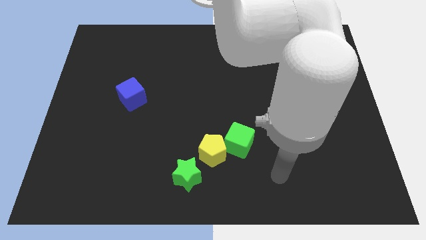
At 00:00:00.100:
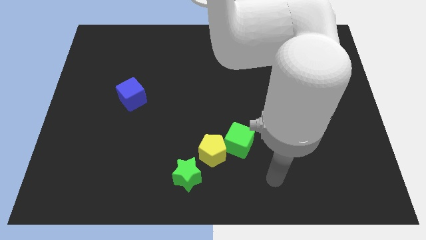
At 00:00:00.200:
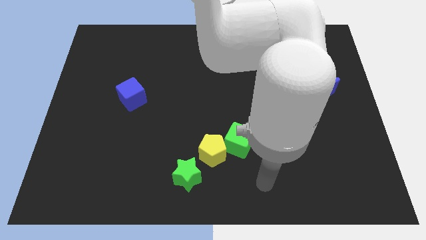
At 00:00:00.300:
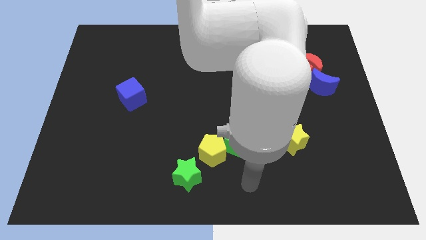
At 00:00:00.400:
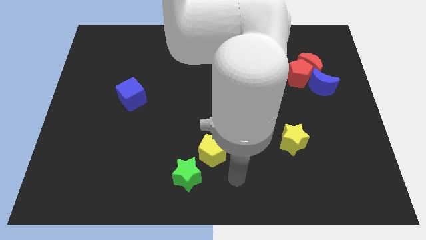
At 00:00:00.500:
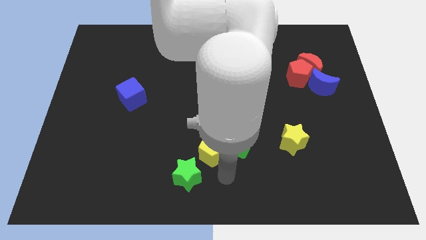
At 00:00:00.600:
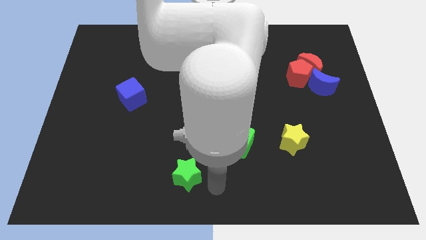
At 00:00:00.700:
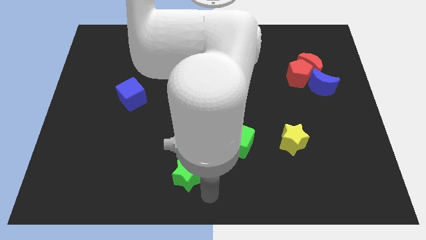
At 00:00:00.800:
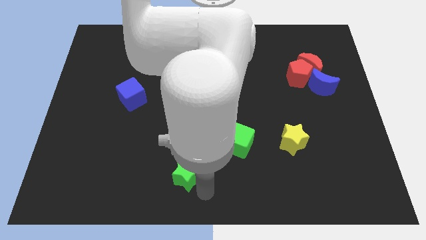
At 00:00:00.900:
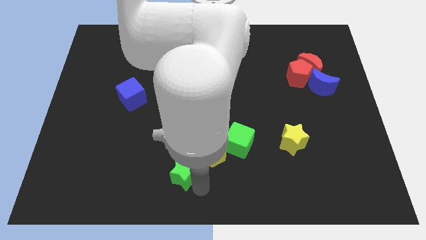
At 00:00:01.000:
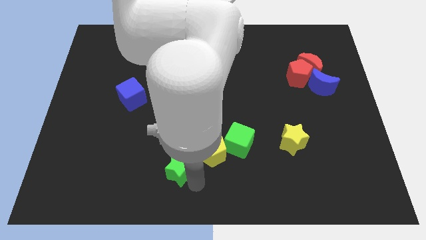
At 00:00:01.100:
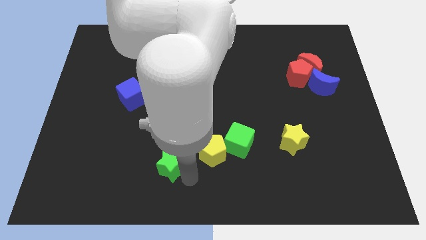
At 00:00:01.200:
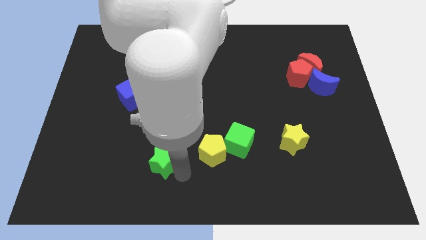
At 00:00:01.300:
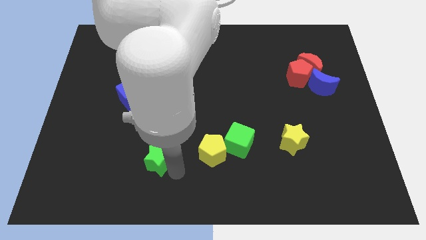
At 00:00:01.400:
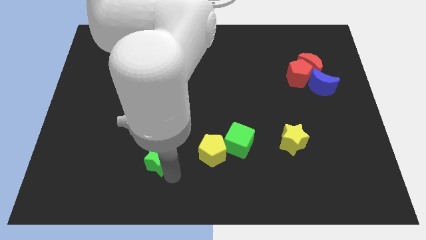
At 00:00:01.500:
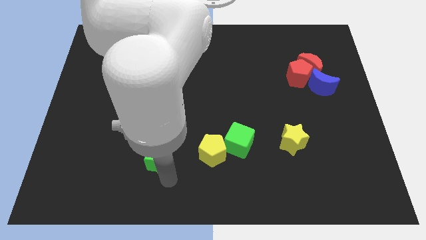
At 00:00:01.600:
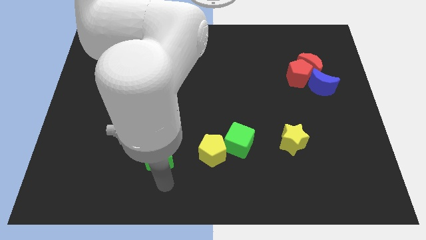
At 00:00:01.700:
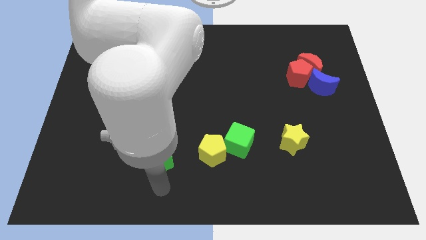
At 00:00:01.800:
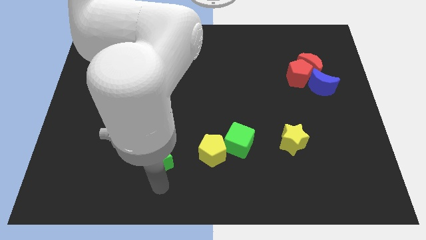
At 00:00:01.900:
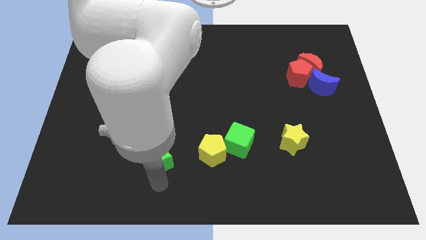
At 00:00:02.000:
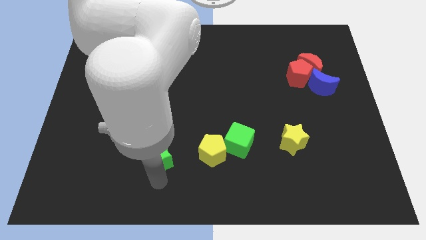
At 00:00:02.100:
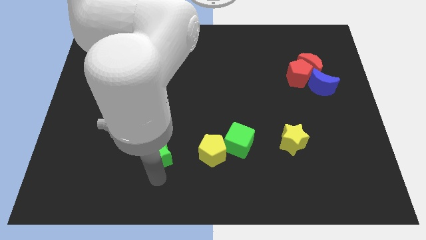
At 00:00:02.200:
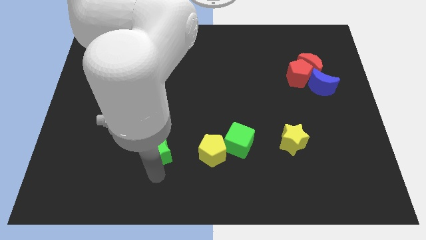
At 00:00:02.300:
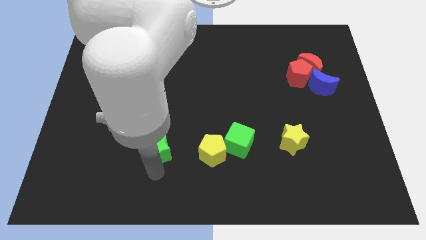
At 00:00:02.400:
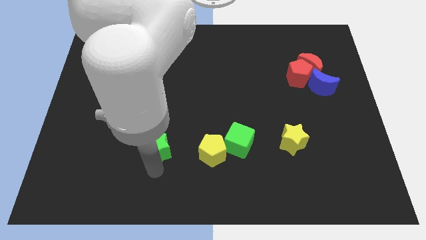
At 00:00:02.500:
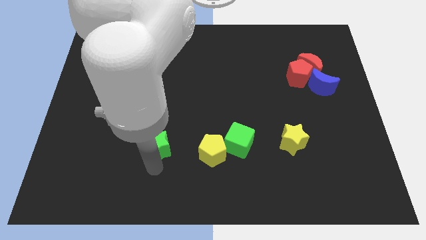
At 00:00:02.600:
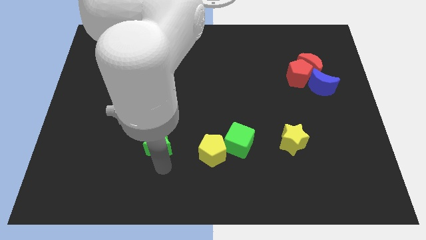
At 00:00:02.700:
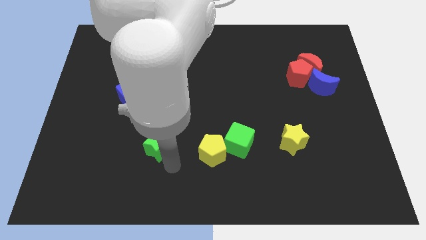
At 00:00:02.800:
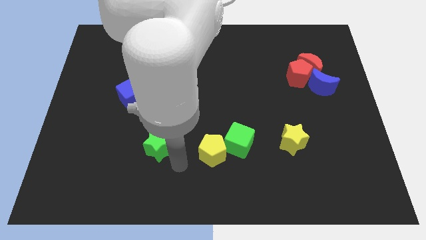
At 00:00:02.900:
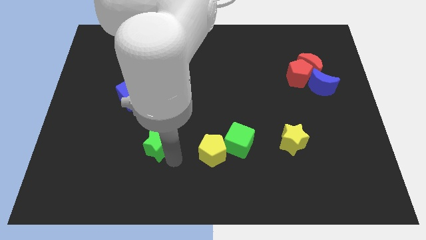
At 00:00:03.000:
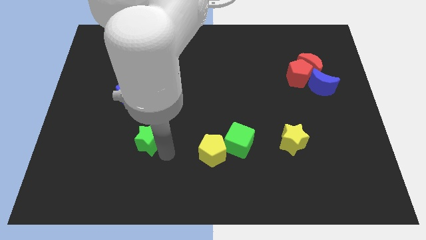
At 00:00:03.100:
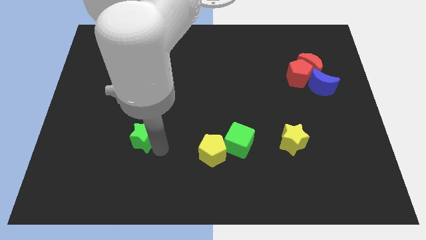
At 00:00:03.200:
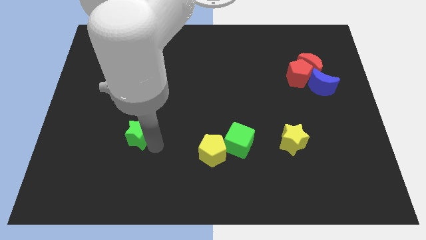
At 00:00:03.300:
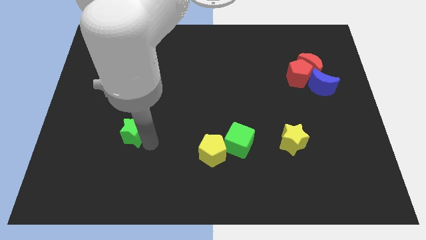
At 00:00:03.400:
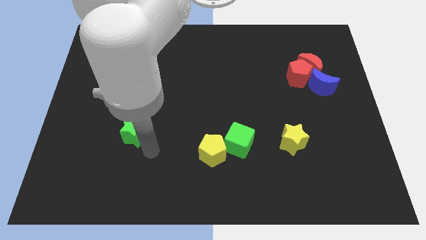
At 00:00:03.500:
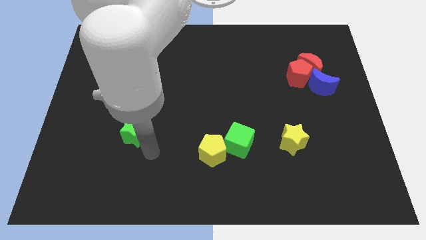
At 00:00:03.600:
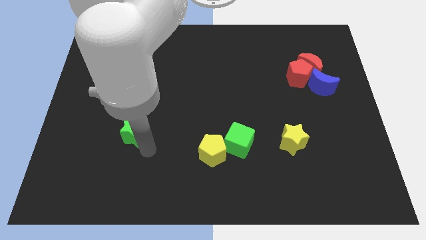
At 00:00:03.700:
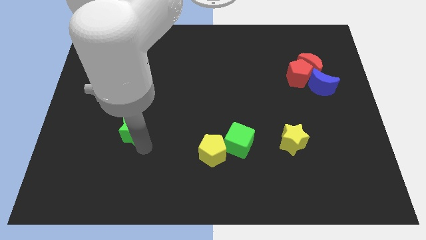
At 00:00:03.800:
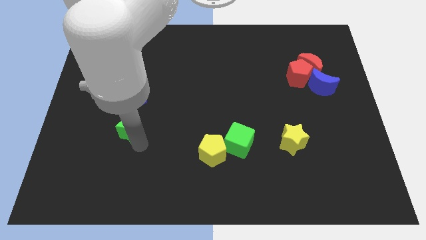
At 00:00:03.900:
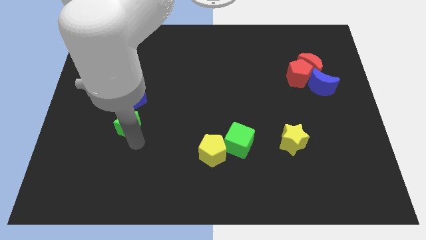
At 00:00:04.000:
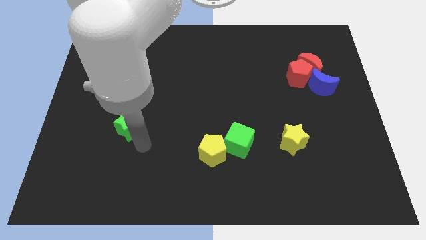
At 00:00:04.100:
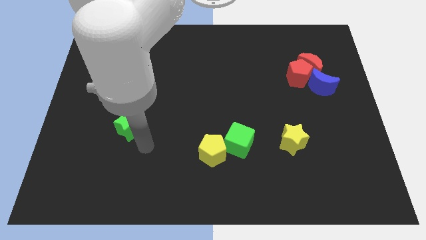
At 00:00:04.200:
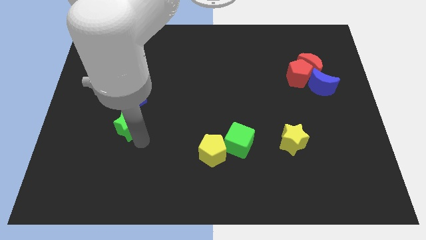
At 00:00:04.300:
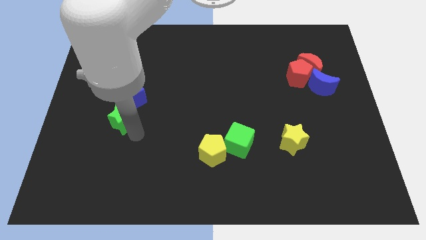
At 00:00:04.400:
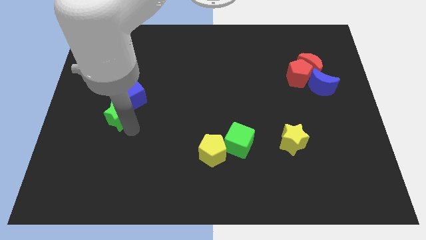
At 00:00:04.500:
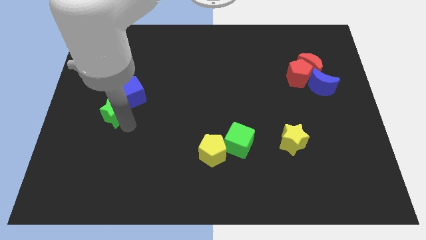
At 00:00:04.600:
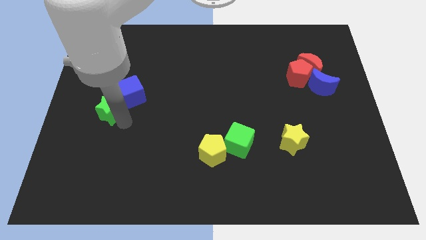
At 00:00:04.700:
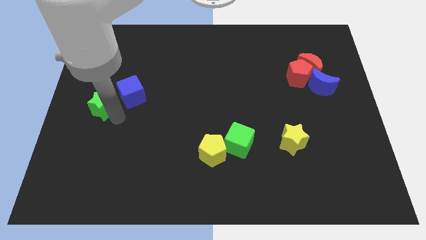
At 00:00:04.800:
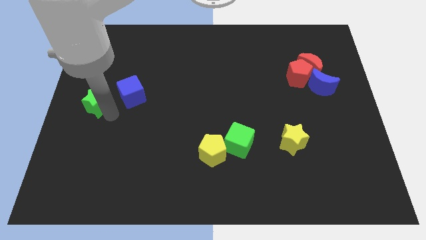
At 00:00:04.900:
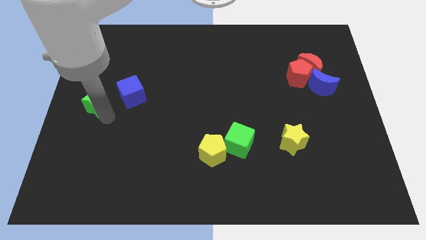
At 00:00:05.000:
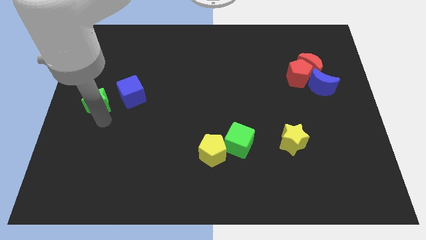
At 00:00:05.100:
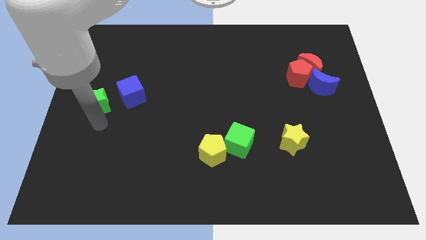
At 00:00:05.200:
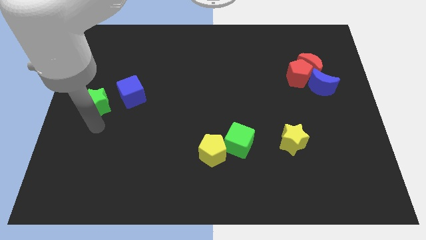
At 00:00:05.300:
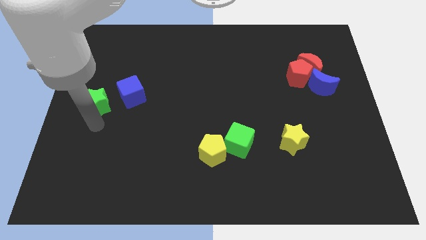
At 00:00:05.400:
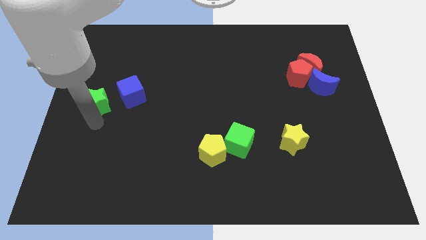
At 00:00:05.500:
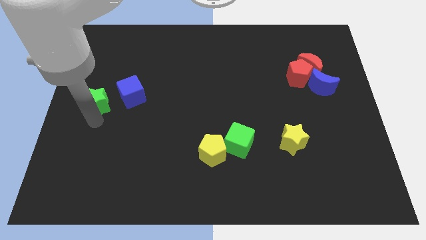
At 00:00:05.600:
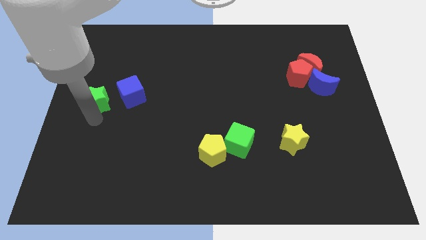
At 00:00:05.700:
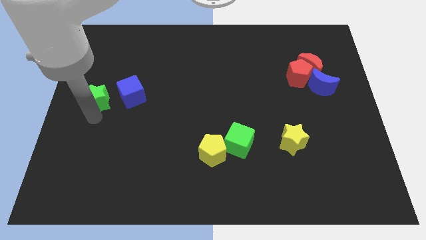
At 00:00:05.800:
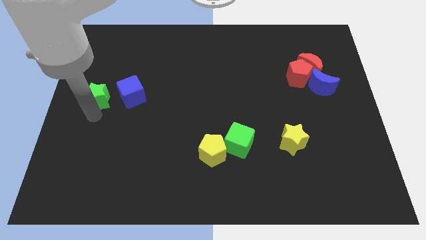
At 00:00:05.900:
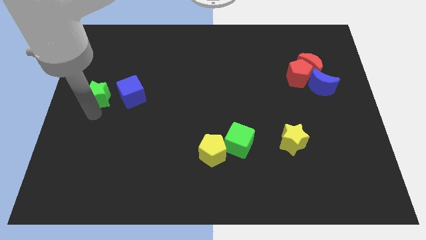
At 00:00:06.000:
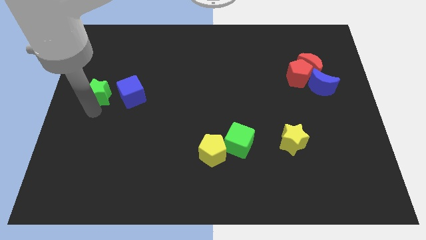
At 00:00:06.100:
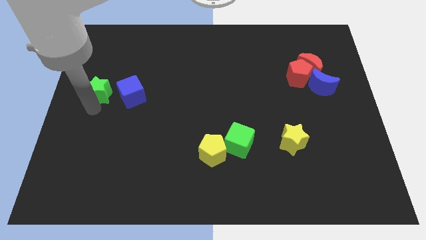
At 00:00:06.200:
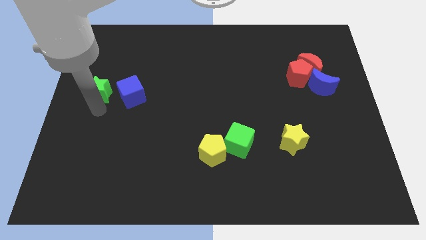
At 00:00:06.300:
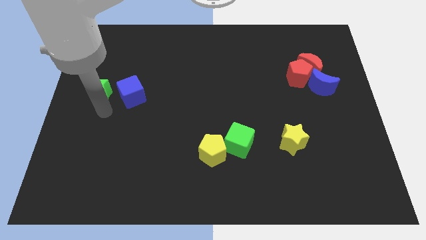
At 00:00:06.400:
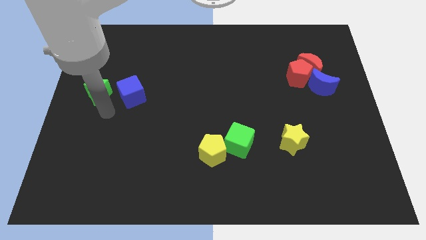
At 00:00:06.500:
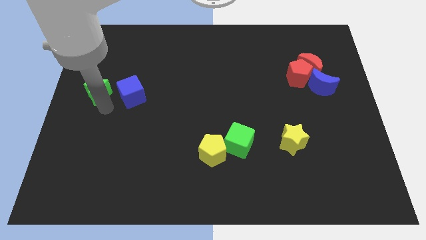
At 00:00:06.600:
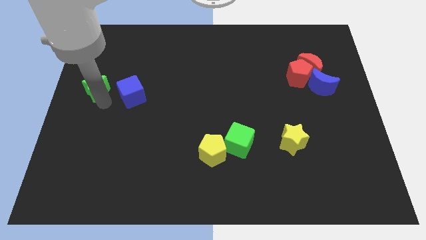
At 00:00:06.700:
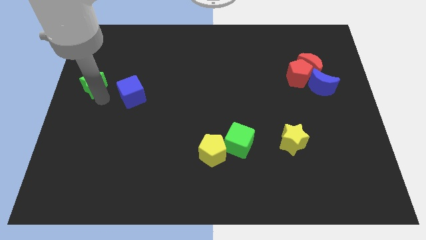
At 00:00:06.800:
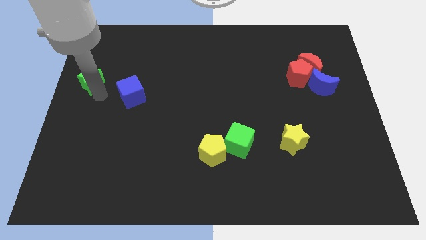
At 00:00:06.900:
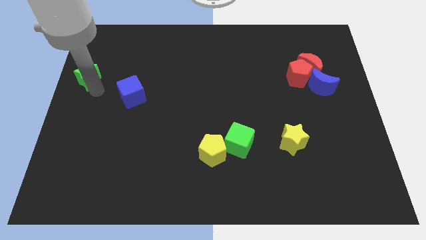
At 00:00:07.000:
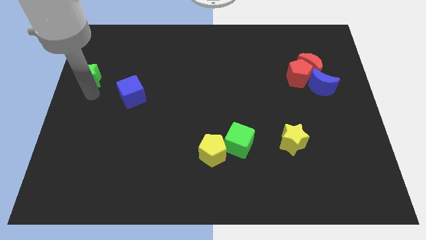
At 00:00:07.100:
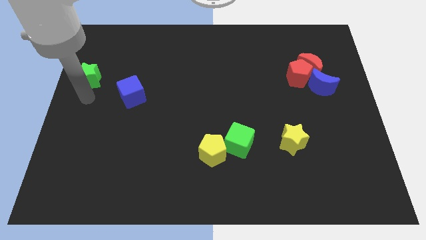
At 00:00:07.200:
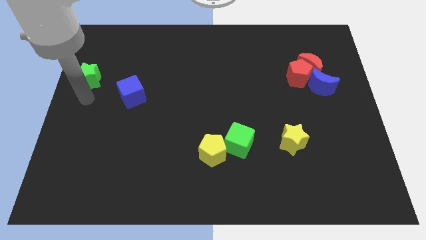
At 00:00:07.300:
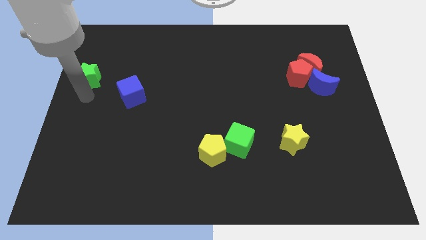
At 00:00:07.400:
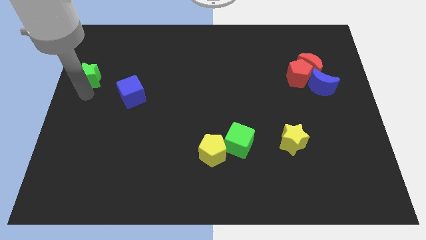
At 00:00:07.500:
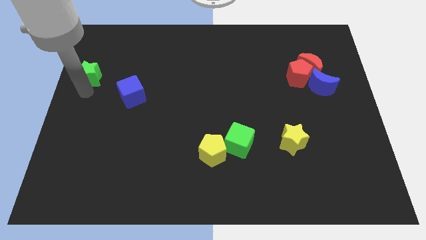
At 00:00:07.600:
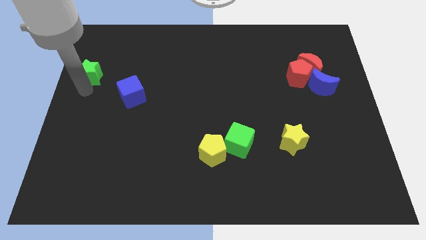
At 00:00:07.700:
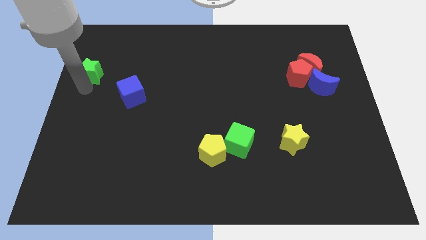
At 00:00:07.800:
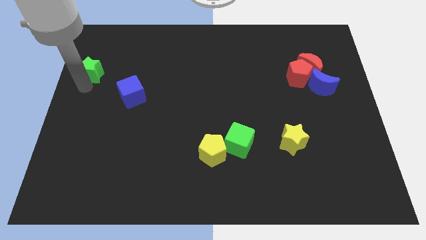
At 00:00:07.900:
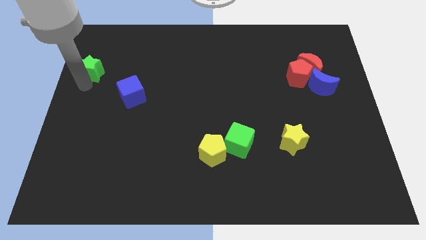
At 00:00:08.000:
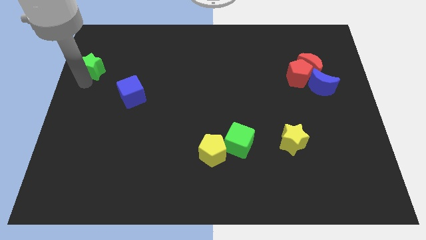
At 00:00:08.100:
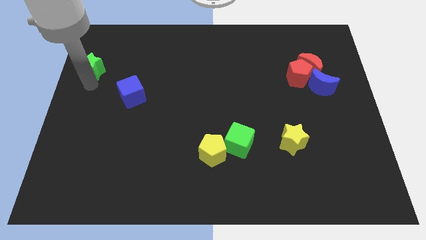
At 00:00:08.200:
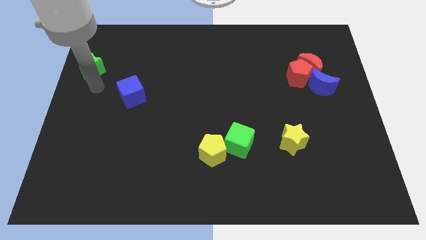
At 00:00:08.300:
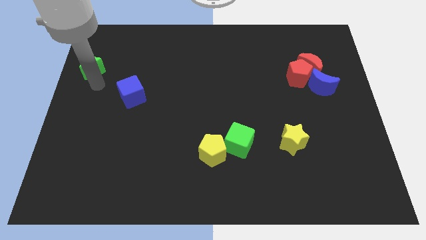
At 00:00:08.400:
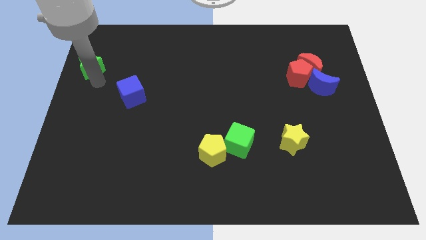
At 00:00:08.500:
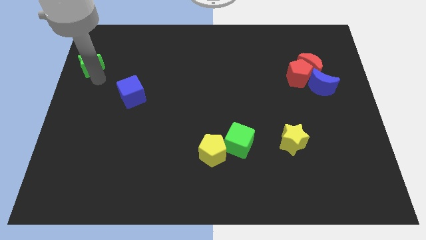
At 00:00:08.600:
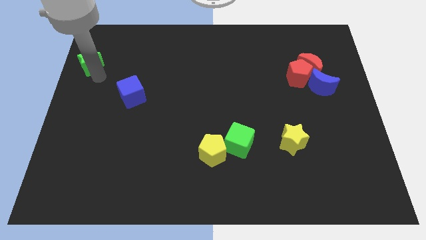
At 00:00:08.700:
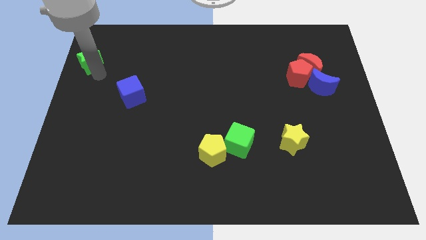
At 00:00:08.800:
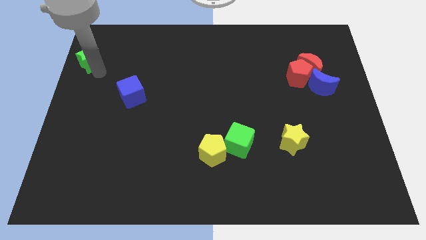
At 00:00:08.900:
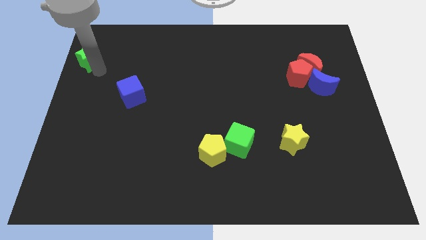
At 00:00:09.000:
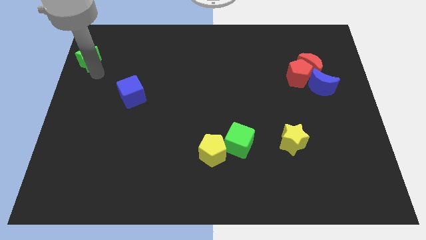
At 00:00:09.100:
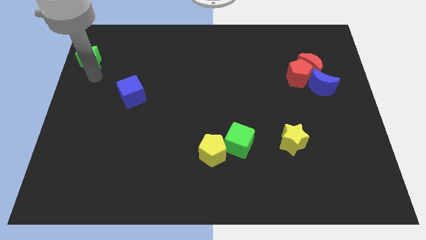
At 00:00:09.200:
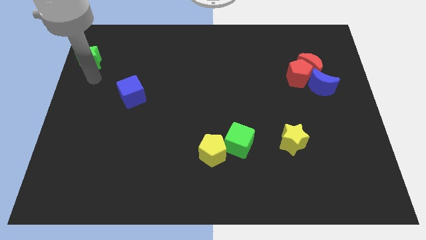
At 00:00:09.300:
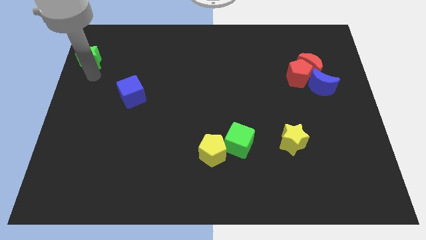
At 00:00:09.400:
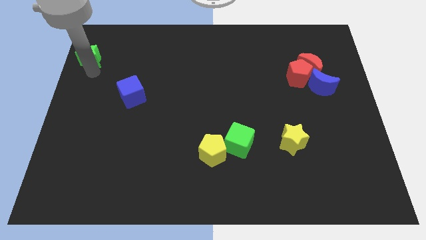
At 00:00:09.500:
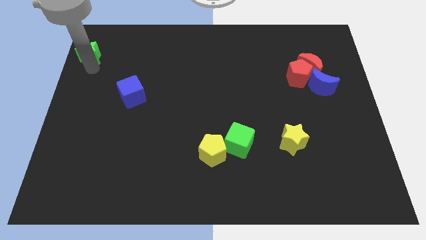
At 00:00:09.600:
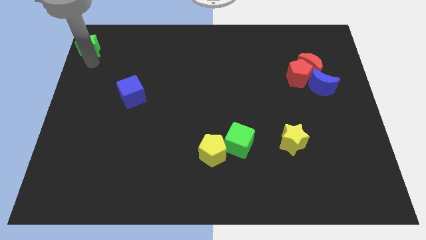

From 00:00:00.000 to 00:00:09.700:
move the green star to the top left of the board
